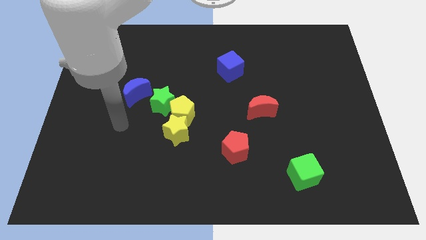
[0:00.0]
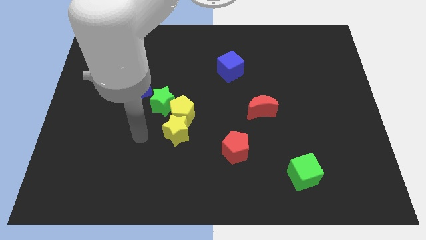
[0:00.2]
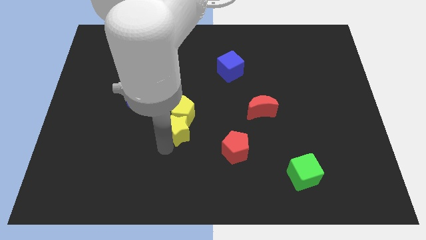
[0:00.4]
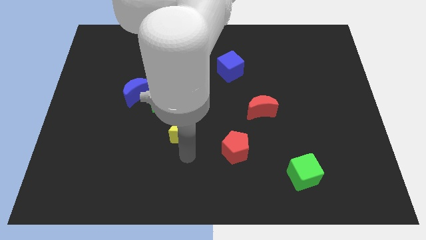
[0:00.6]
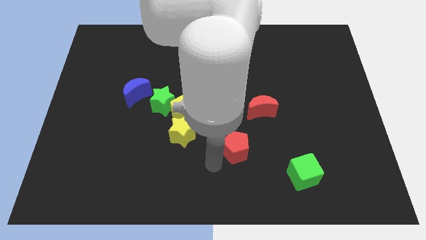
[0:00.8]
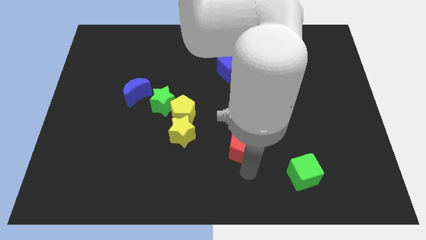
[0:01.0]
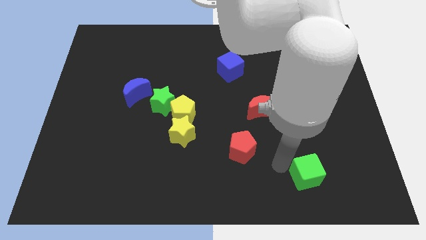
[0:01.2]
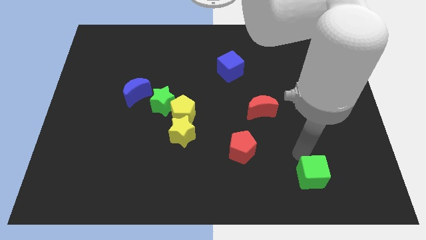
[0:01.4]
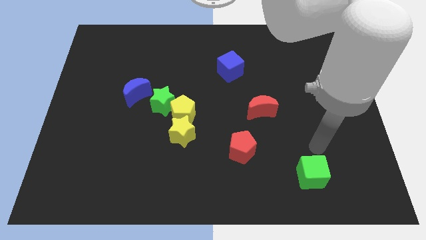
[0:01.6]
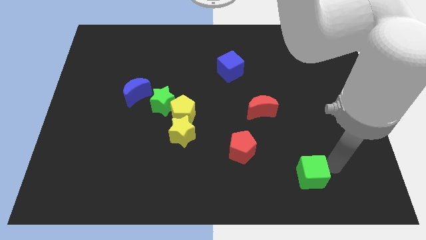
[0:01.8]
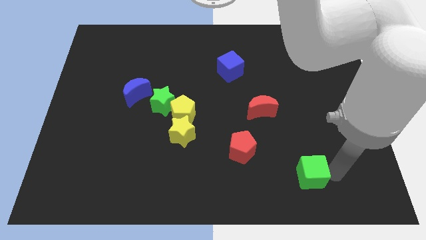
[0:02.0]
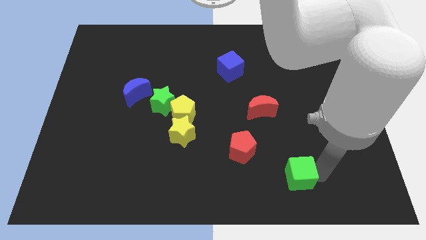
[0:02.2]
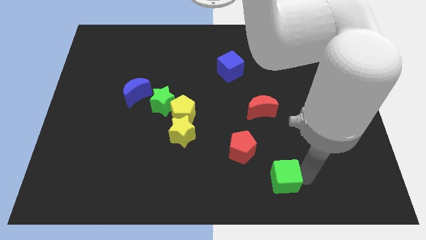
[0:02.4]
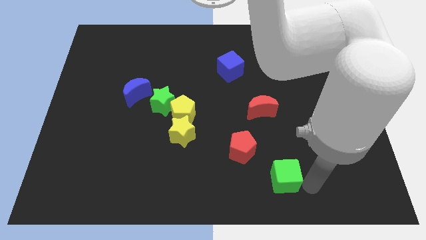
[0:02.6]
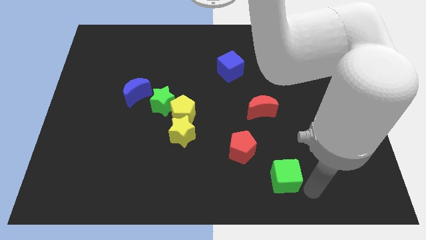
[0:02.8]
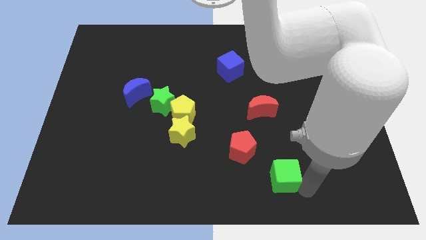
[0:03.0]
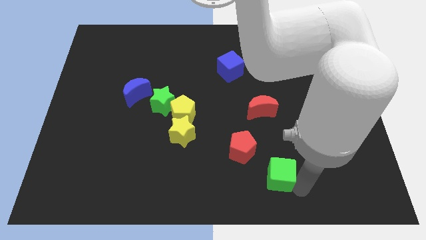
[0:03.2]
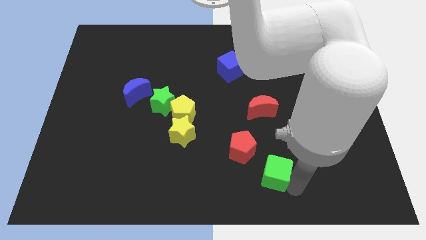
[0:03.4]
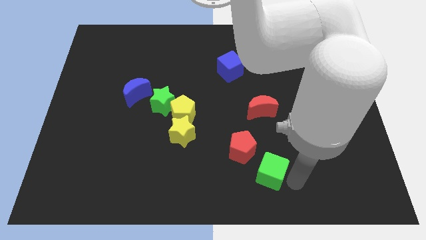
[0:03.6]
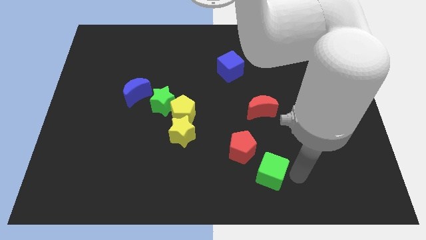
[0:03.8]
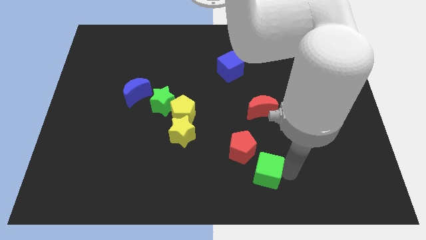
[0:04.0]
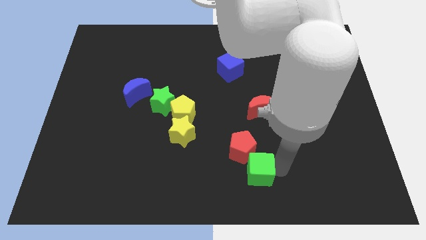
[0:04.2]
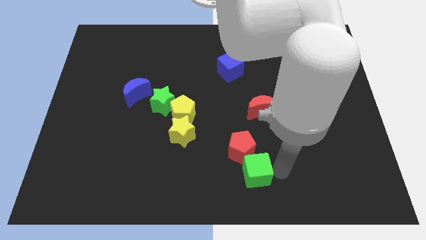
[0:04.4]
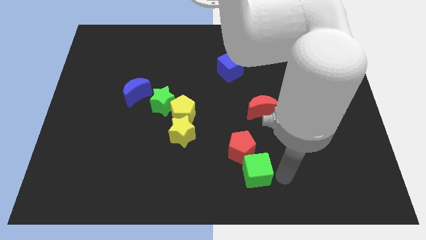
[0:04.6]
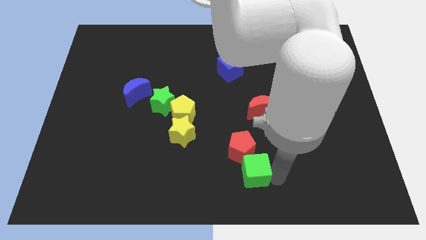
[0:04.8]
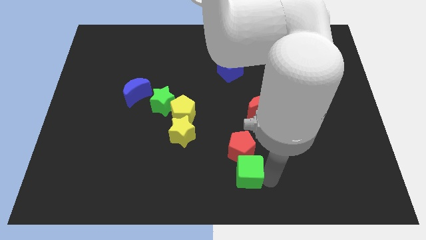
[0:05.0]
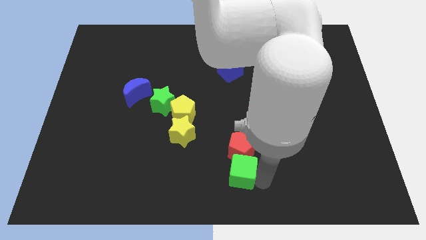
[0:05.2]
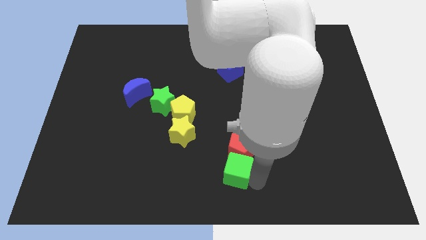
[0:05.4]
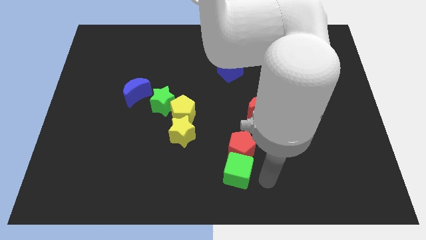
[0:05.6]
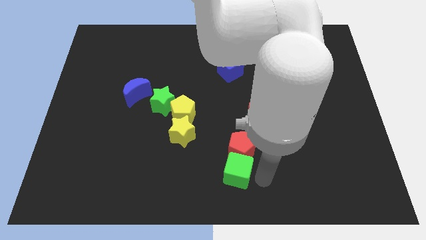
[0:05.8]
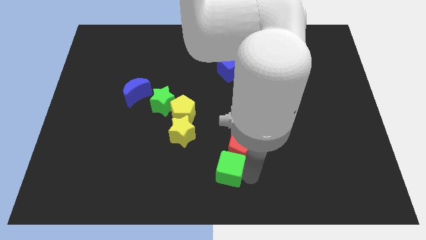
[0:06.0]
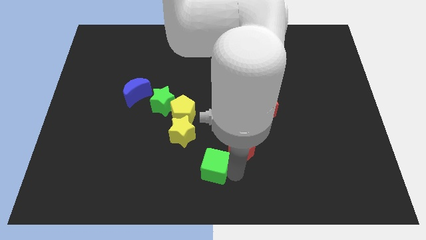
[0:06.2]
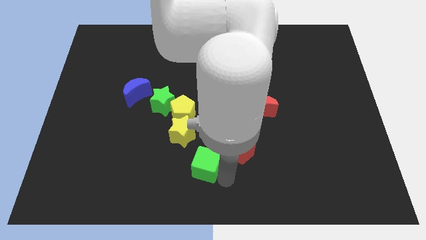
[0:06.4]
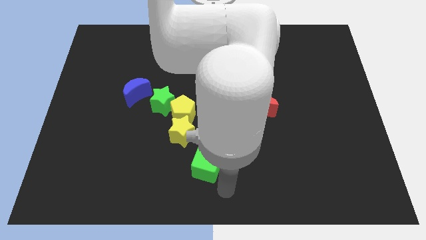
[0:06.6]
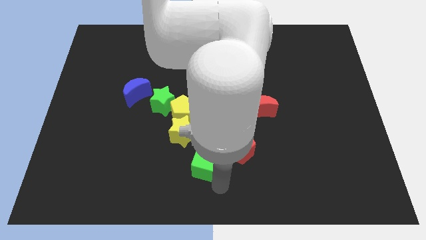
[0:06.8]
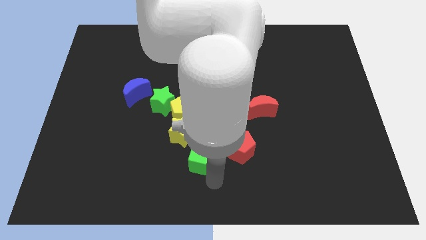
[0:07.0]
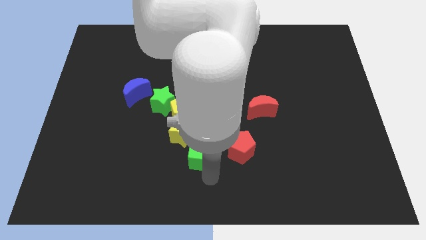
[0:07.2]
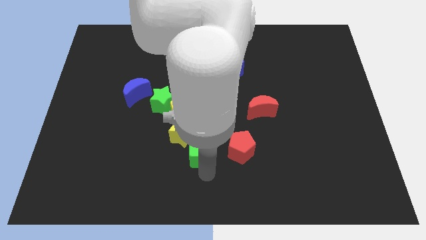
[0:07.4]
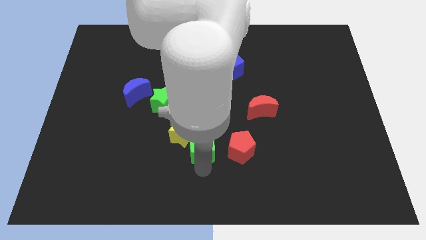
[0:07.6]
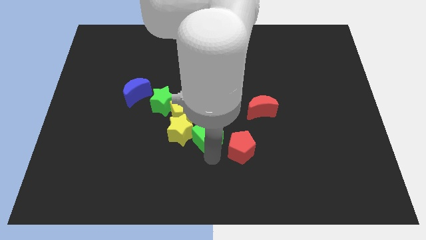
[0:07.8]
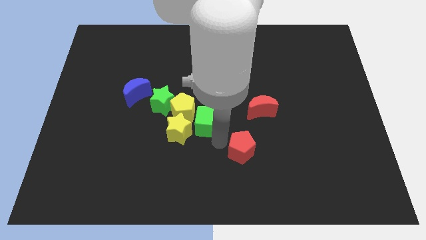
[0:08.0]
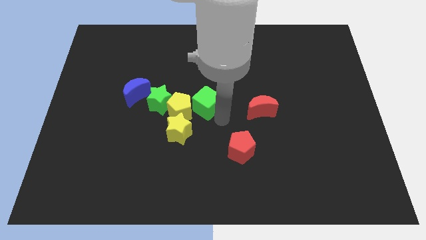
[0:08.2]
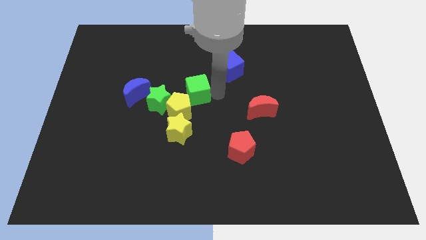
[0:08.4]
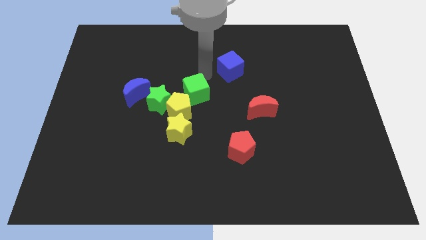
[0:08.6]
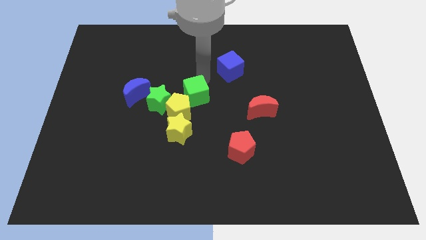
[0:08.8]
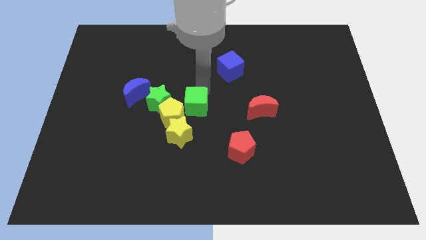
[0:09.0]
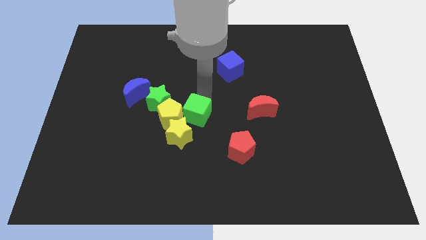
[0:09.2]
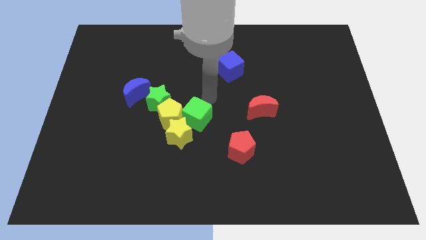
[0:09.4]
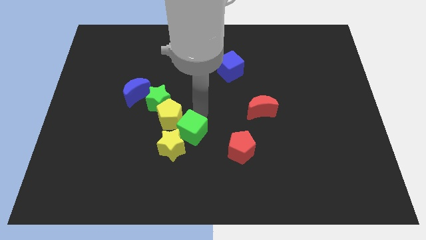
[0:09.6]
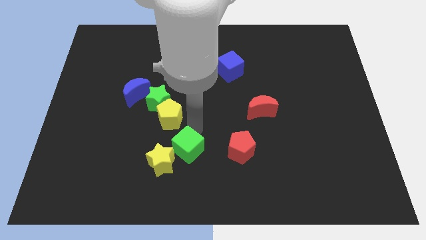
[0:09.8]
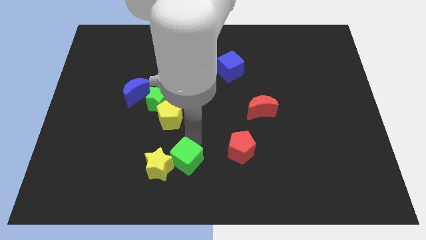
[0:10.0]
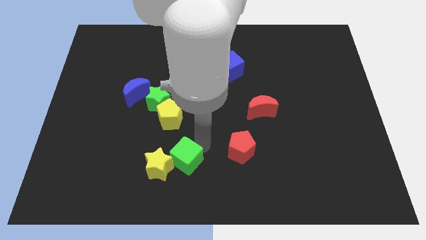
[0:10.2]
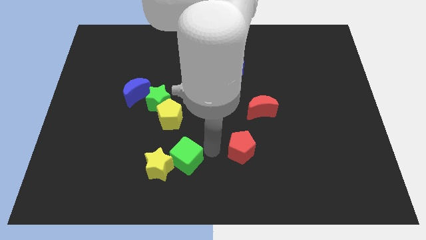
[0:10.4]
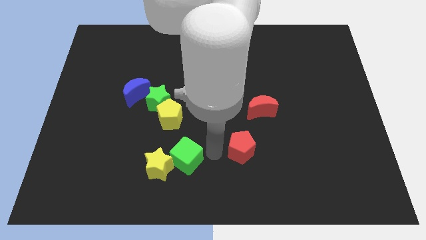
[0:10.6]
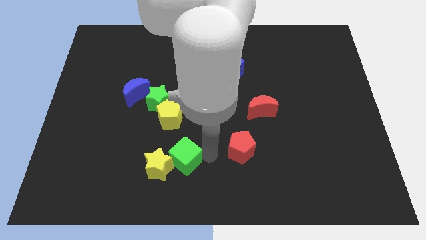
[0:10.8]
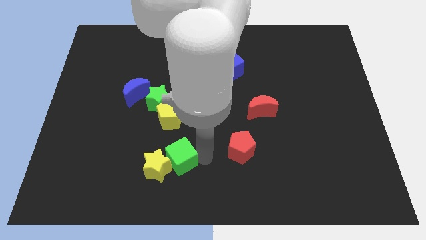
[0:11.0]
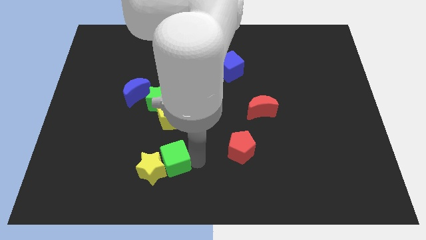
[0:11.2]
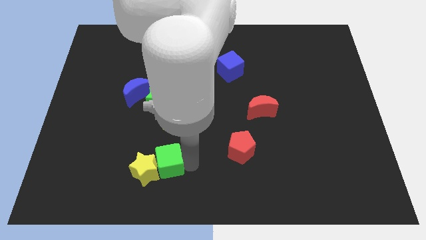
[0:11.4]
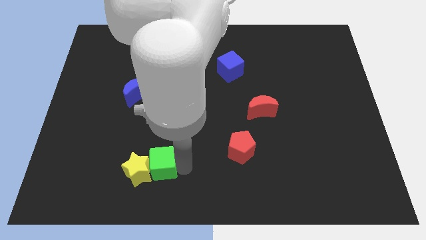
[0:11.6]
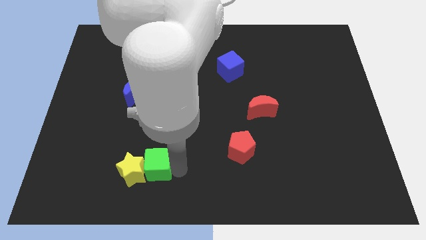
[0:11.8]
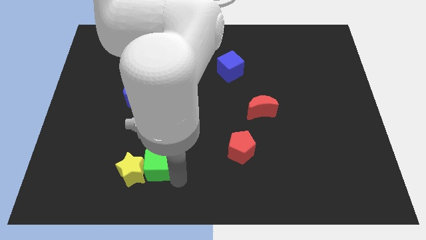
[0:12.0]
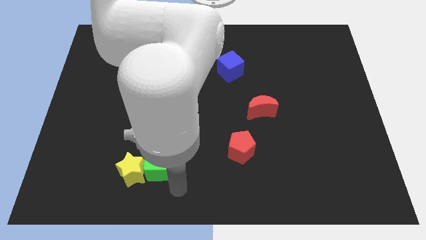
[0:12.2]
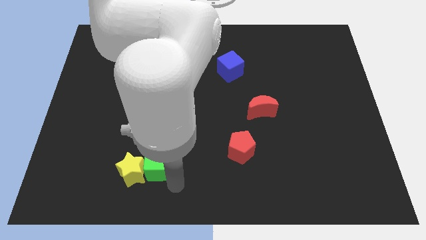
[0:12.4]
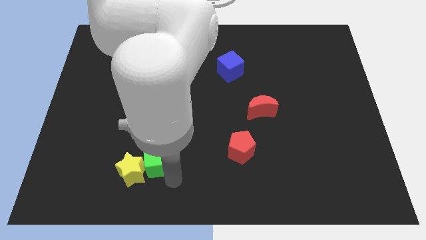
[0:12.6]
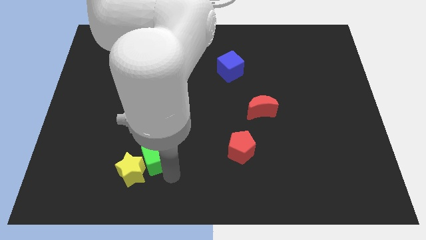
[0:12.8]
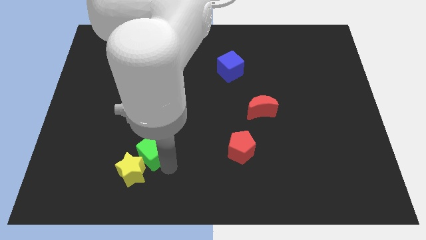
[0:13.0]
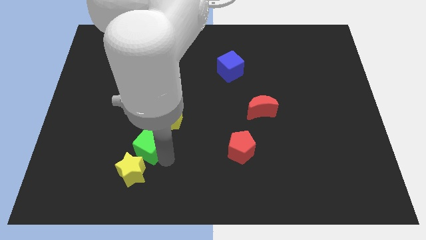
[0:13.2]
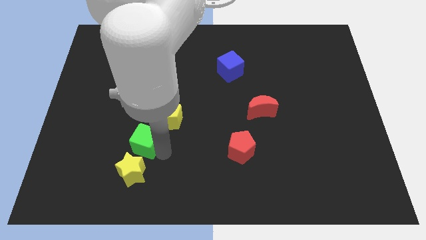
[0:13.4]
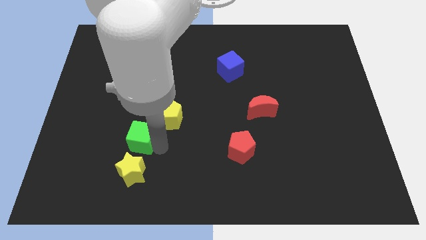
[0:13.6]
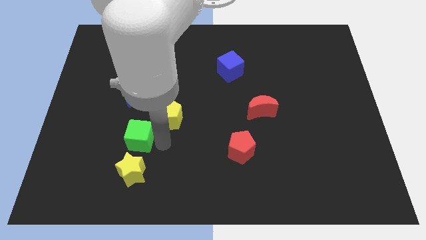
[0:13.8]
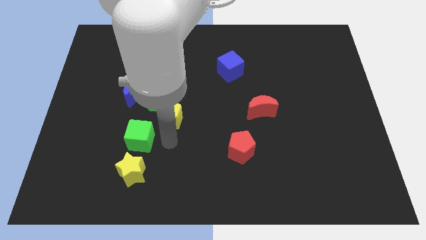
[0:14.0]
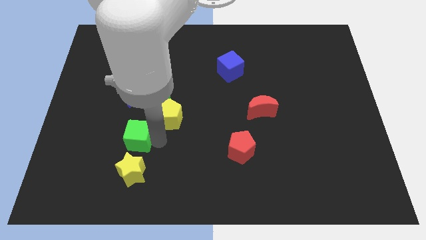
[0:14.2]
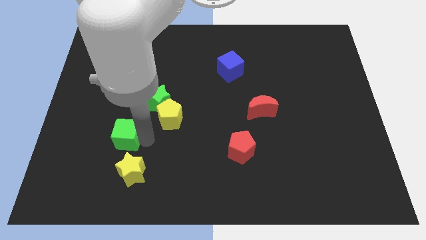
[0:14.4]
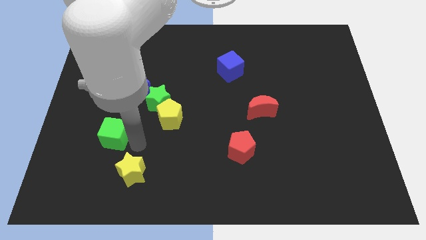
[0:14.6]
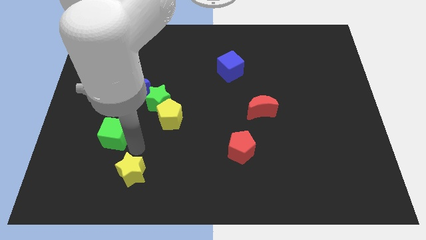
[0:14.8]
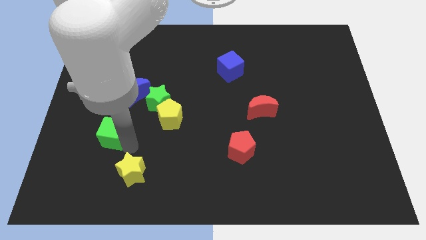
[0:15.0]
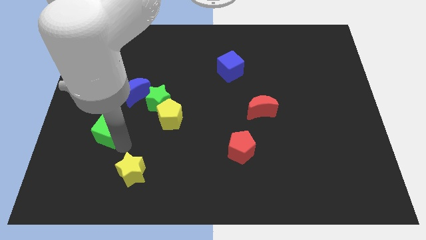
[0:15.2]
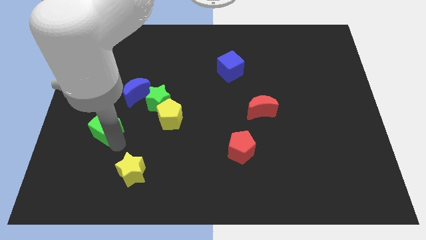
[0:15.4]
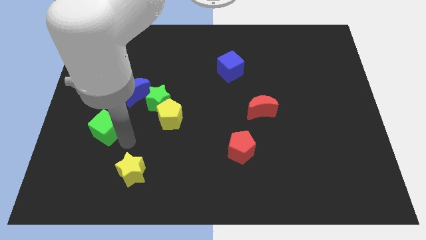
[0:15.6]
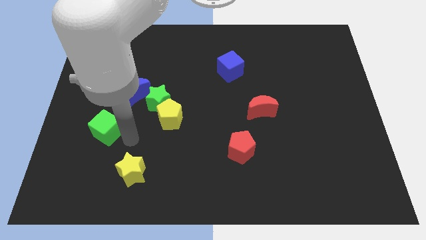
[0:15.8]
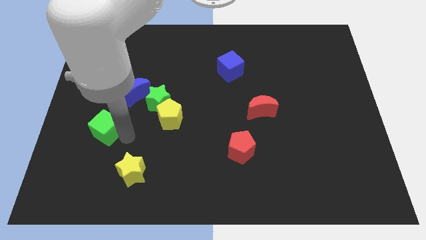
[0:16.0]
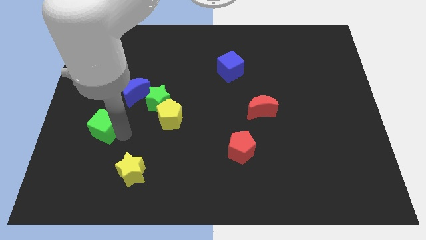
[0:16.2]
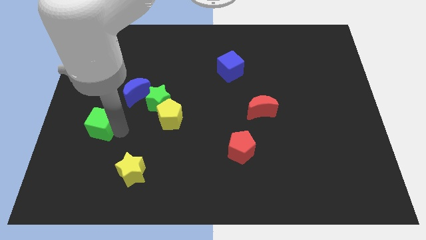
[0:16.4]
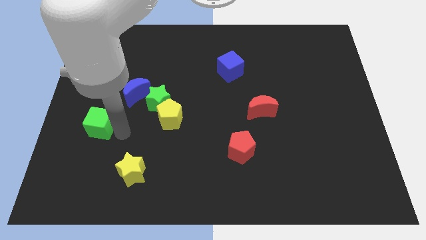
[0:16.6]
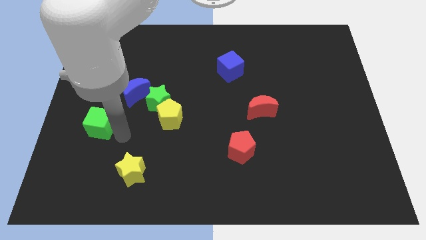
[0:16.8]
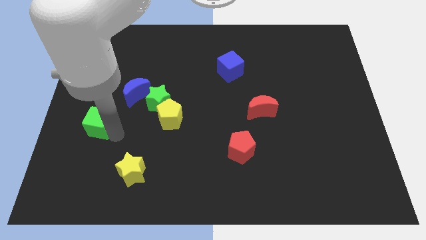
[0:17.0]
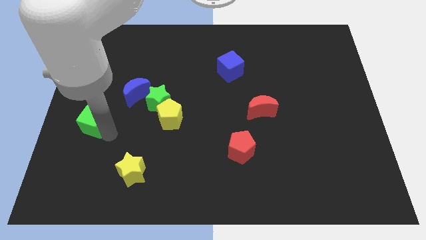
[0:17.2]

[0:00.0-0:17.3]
move the green cube to the left side of the board
